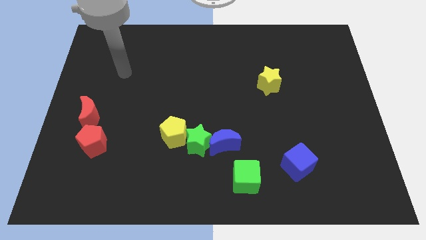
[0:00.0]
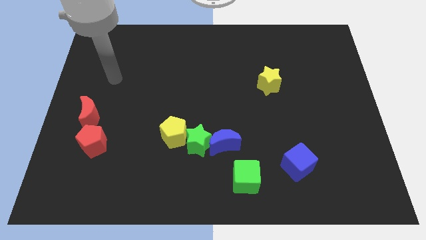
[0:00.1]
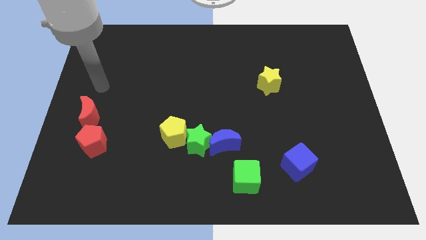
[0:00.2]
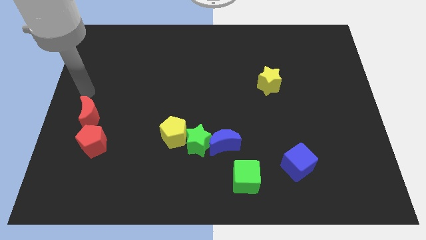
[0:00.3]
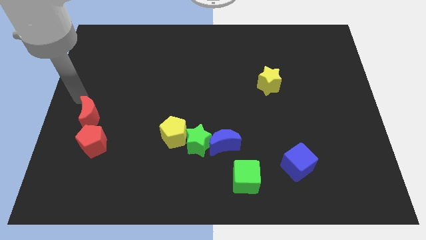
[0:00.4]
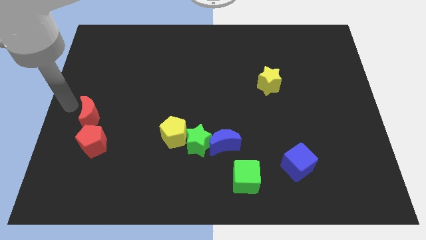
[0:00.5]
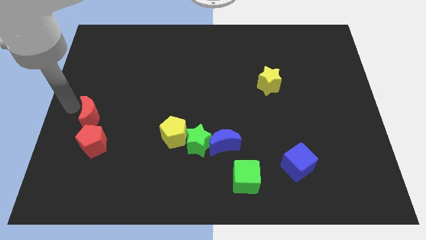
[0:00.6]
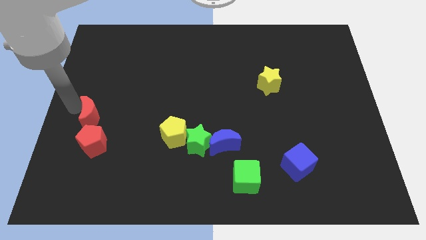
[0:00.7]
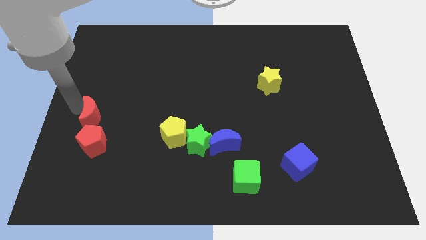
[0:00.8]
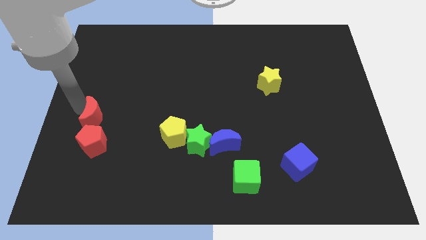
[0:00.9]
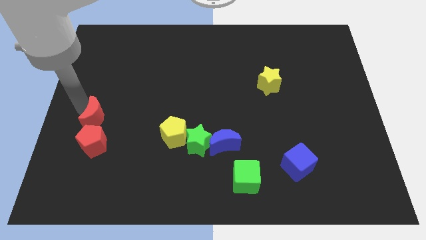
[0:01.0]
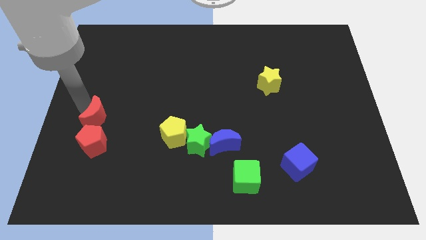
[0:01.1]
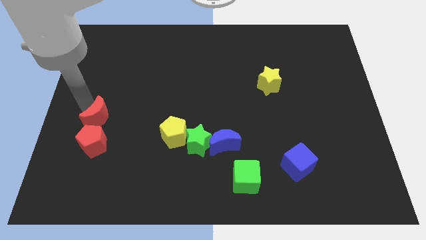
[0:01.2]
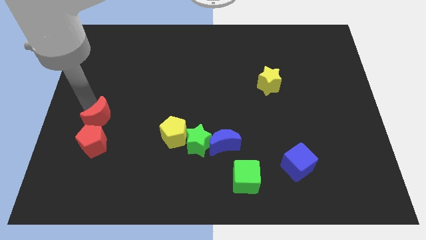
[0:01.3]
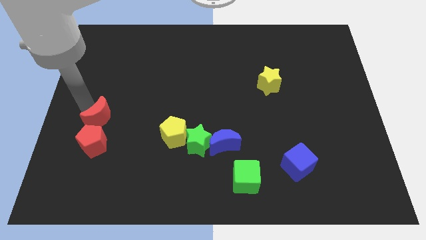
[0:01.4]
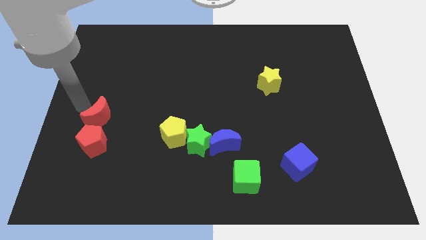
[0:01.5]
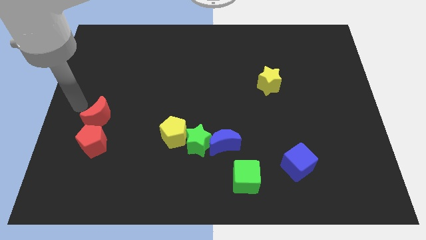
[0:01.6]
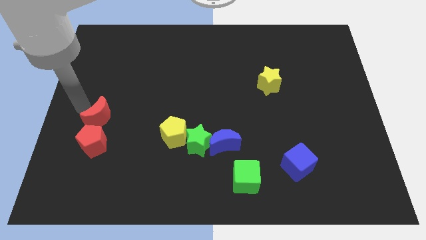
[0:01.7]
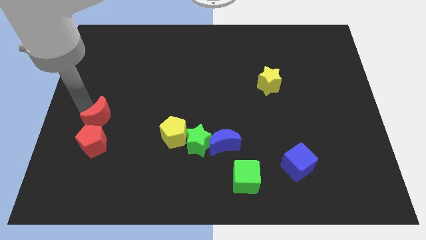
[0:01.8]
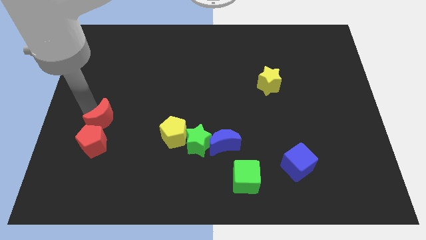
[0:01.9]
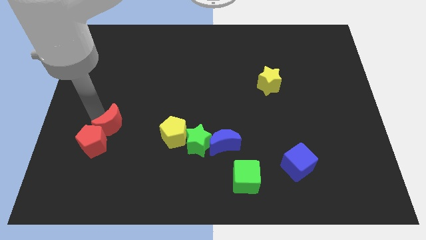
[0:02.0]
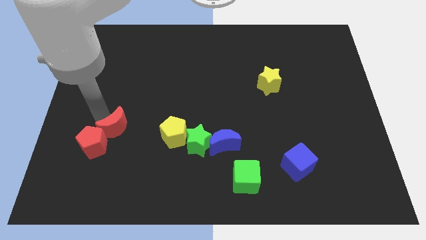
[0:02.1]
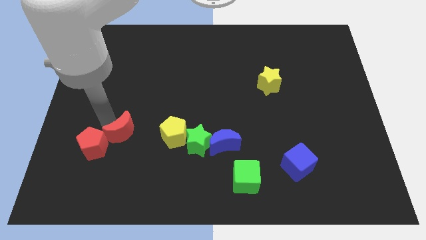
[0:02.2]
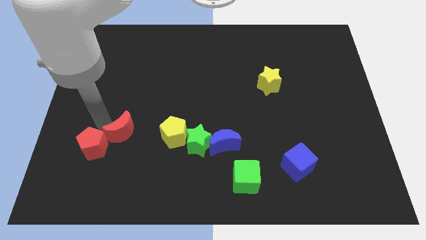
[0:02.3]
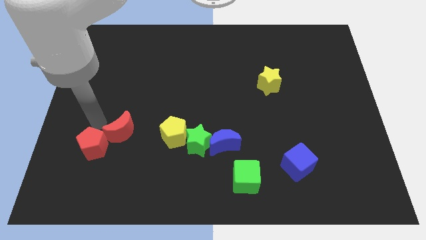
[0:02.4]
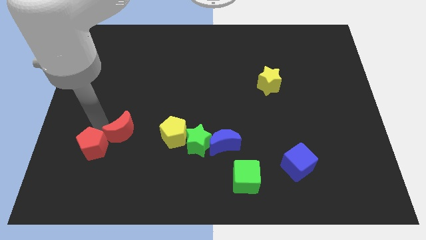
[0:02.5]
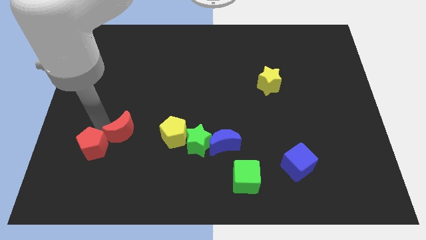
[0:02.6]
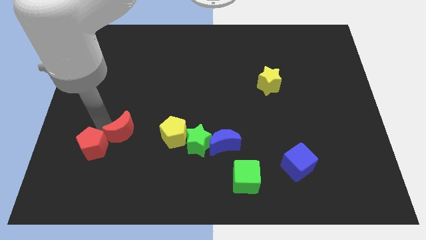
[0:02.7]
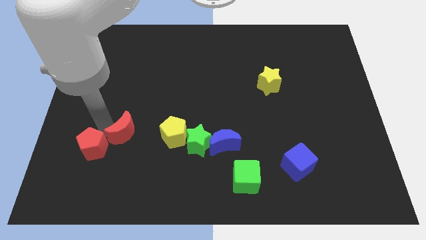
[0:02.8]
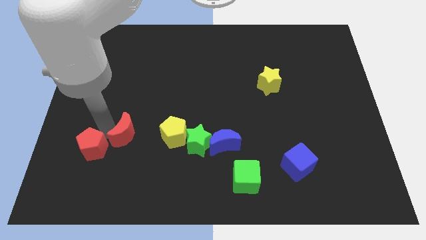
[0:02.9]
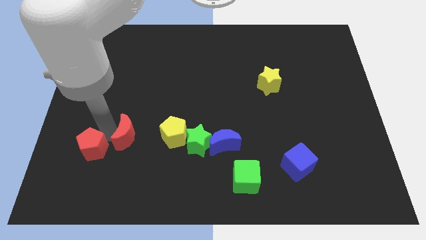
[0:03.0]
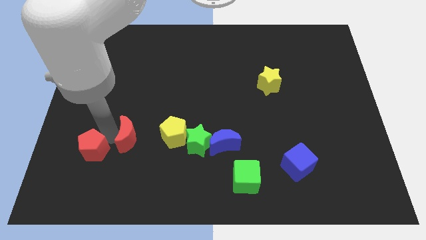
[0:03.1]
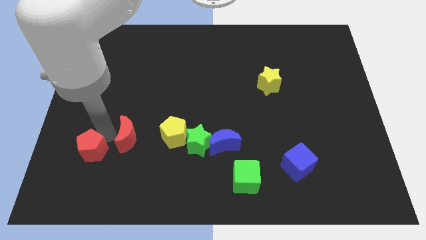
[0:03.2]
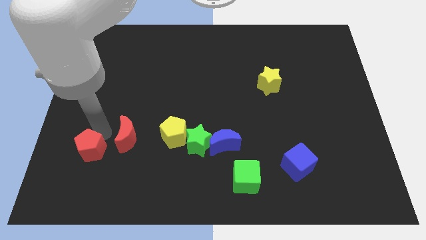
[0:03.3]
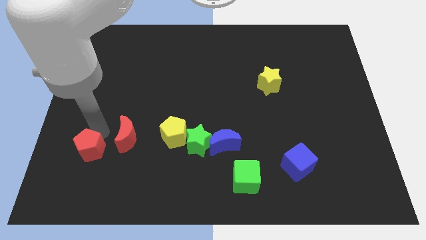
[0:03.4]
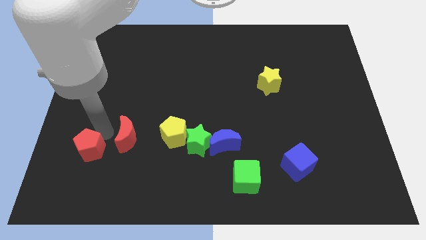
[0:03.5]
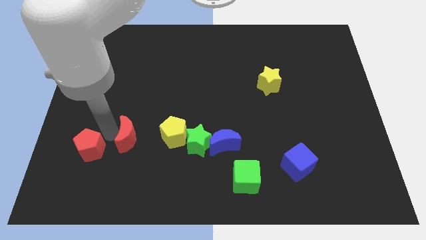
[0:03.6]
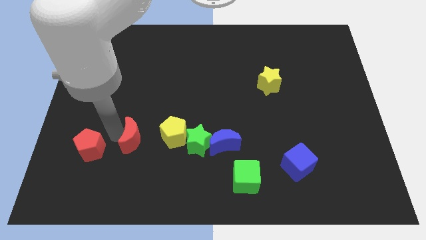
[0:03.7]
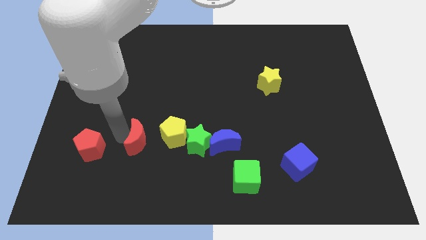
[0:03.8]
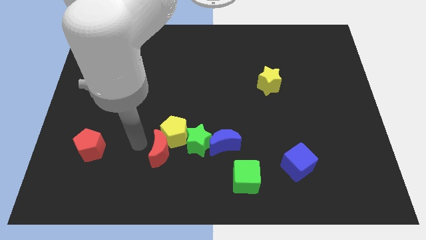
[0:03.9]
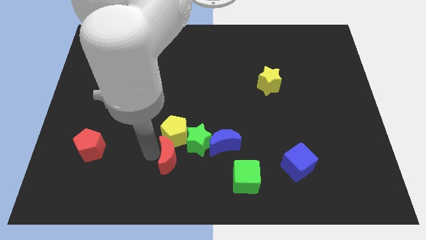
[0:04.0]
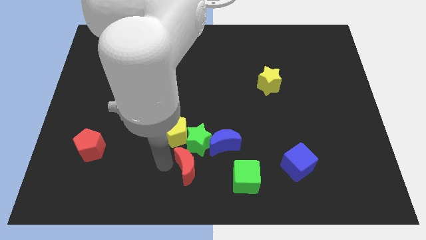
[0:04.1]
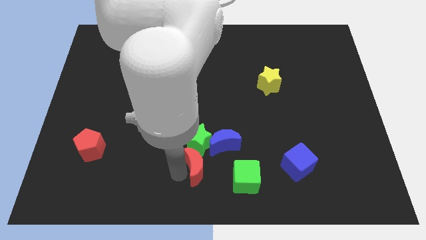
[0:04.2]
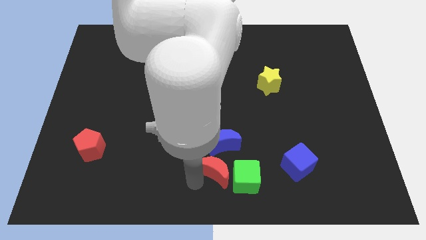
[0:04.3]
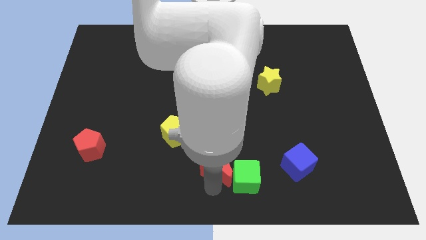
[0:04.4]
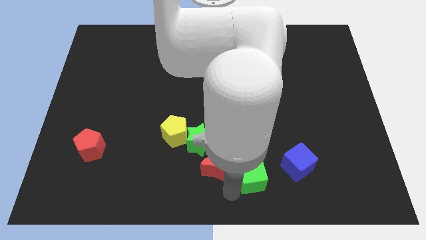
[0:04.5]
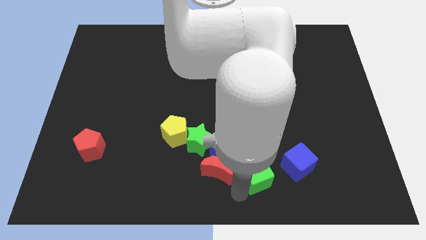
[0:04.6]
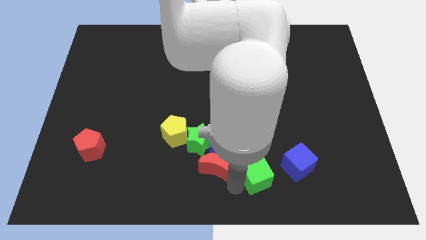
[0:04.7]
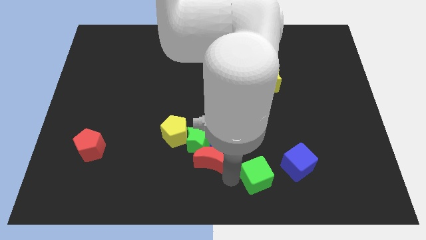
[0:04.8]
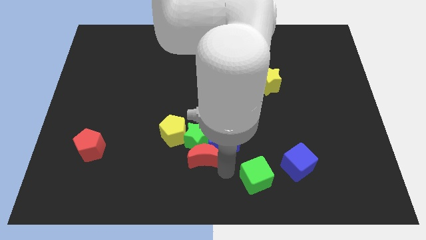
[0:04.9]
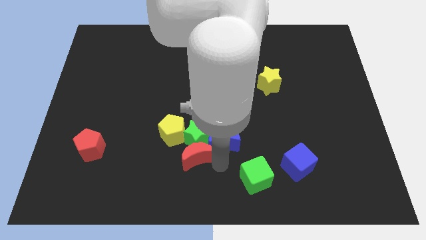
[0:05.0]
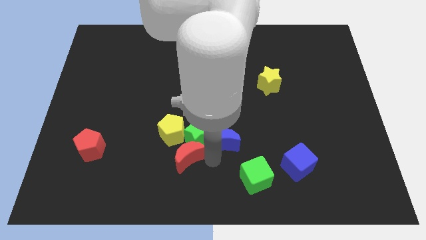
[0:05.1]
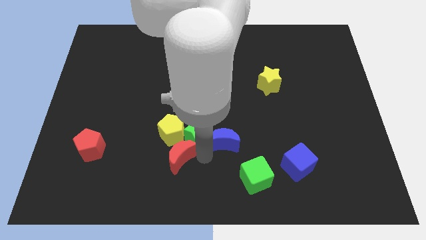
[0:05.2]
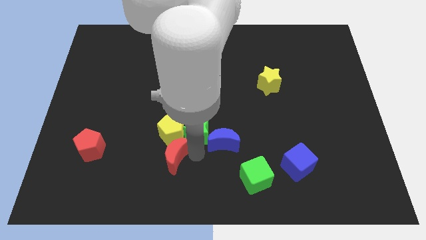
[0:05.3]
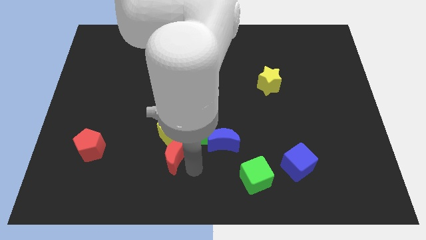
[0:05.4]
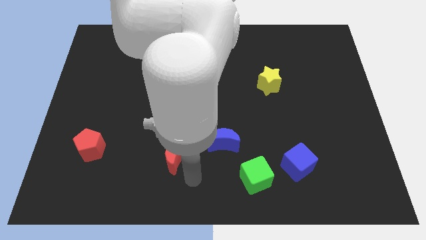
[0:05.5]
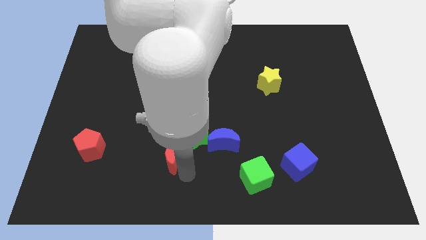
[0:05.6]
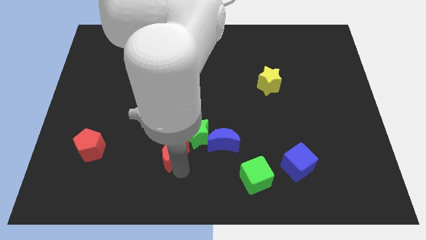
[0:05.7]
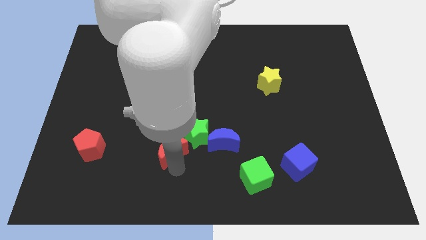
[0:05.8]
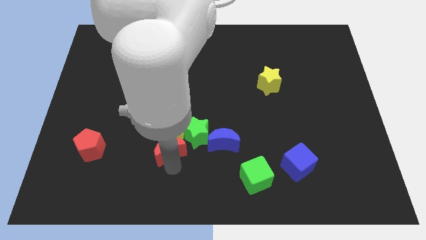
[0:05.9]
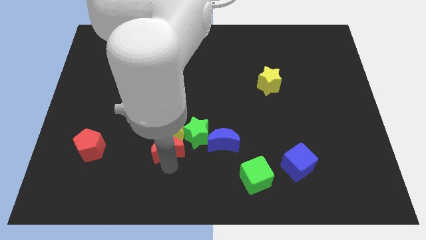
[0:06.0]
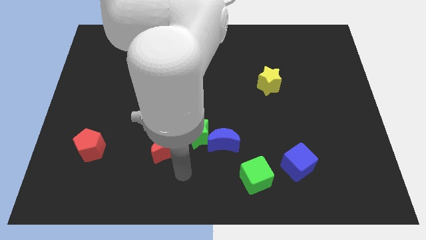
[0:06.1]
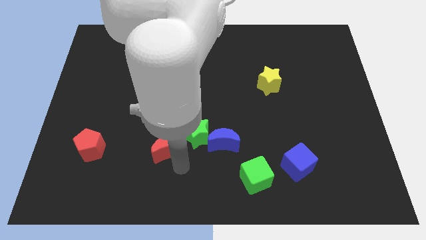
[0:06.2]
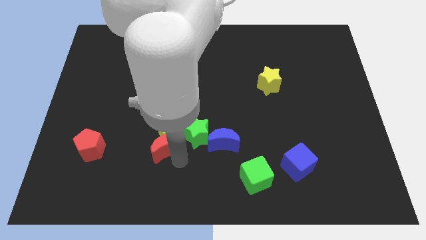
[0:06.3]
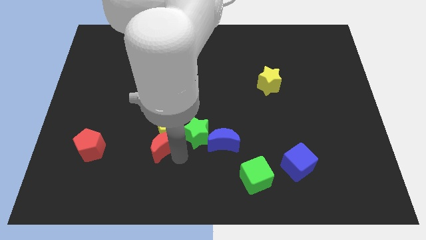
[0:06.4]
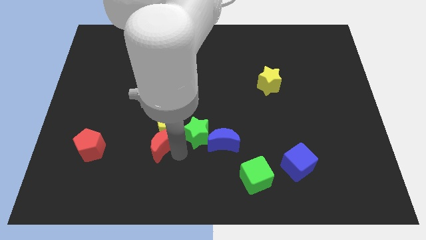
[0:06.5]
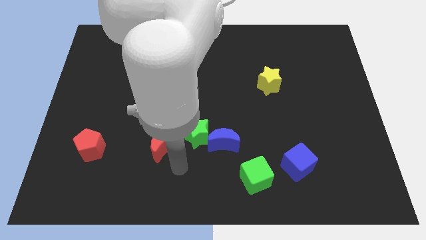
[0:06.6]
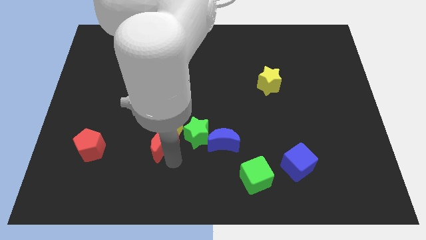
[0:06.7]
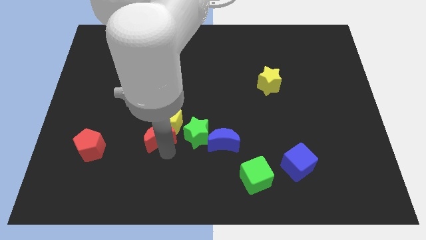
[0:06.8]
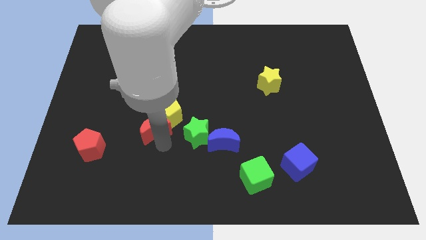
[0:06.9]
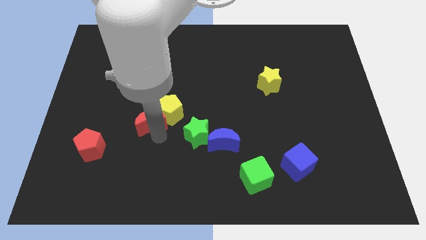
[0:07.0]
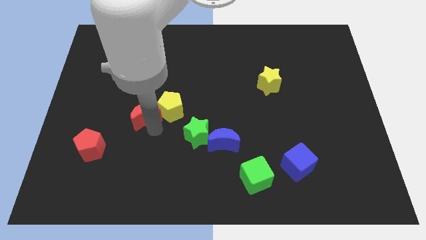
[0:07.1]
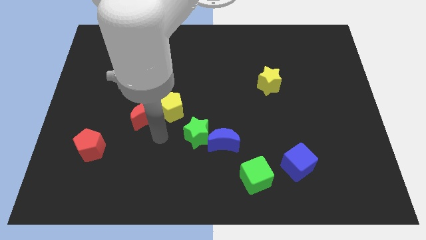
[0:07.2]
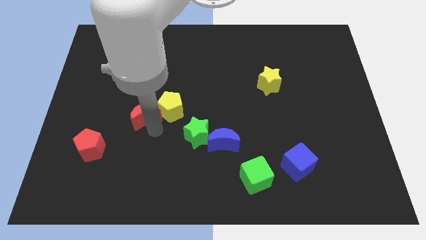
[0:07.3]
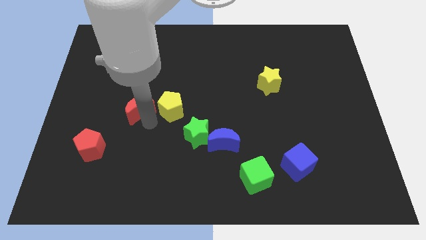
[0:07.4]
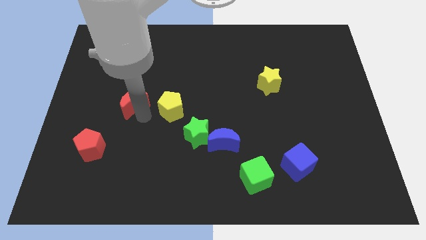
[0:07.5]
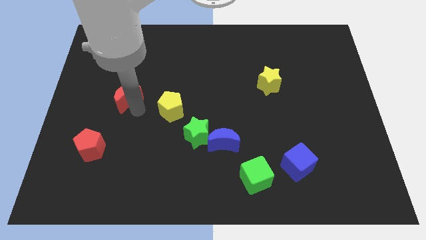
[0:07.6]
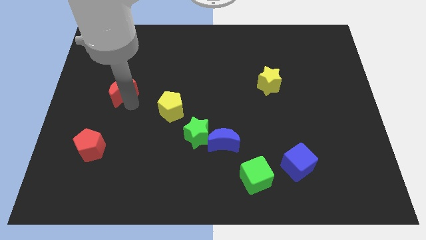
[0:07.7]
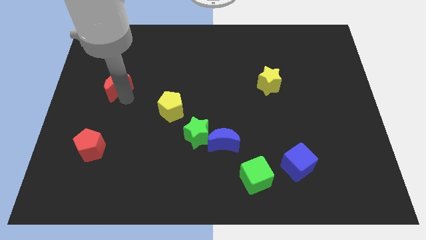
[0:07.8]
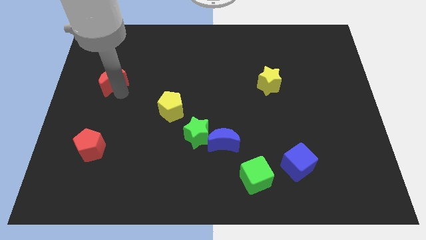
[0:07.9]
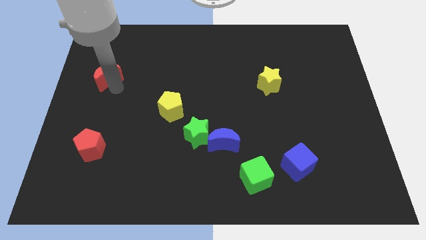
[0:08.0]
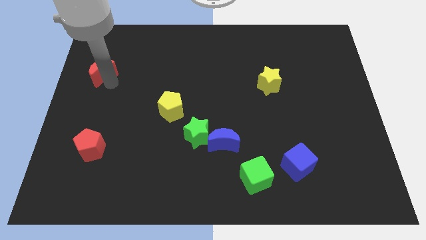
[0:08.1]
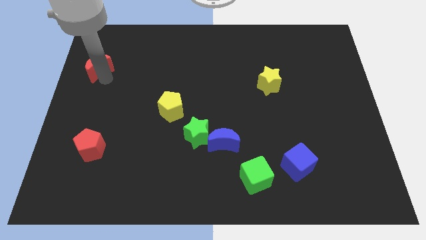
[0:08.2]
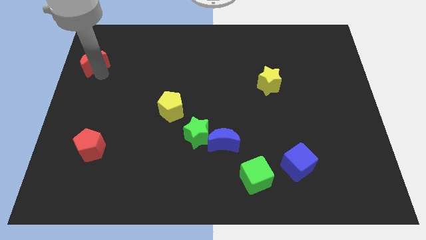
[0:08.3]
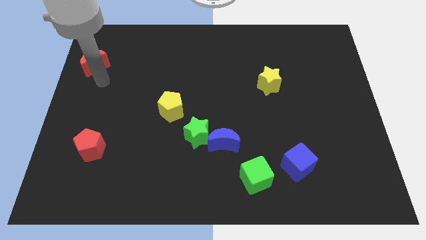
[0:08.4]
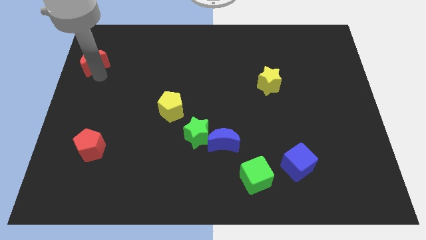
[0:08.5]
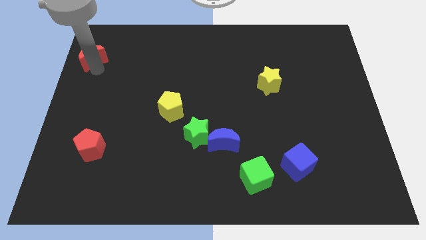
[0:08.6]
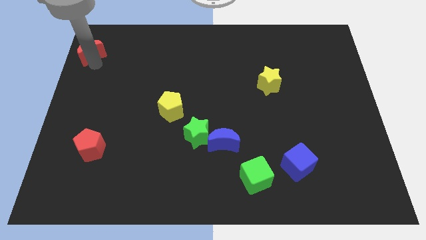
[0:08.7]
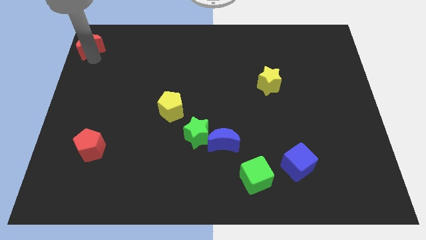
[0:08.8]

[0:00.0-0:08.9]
slide the red moon to the upper left corner
